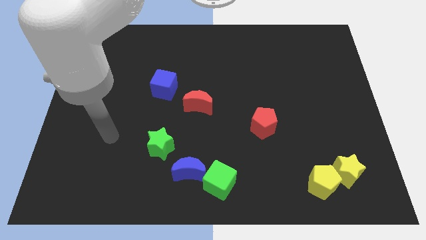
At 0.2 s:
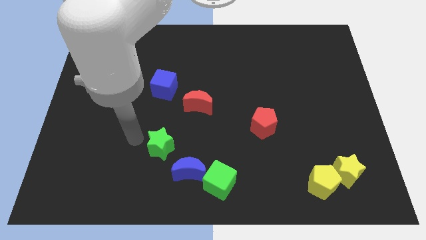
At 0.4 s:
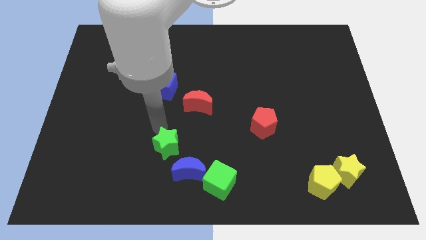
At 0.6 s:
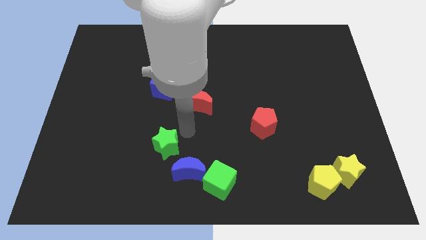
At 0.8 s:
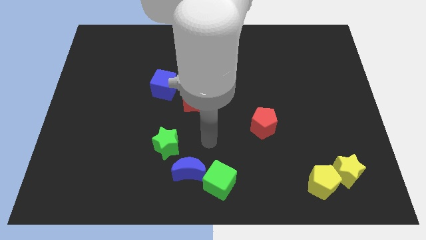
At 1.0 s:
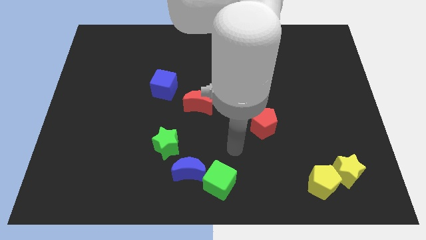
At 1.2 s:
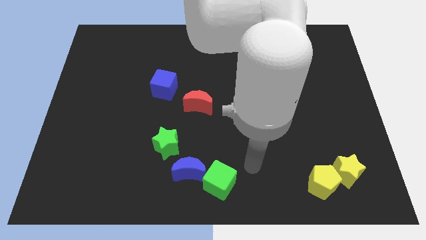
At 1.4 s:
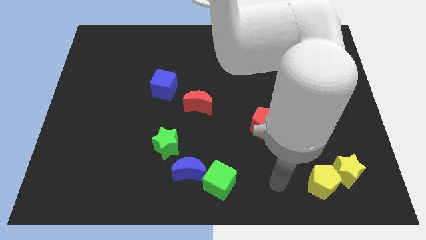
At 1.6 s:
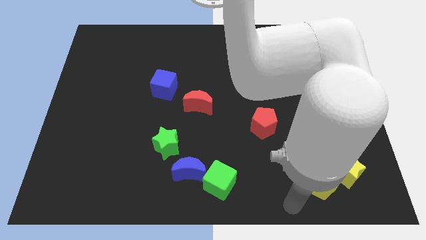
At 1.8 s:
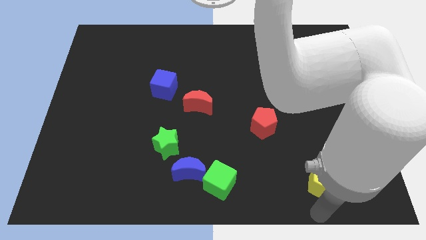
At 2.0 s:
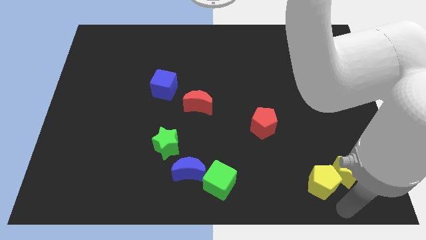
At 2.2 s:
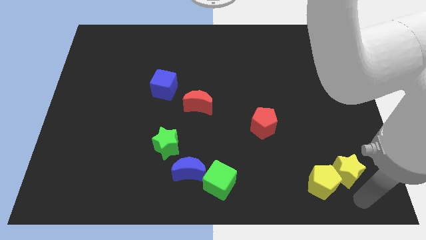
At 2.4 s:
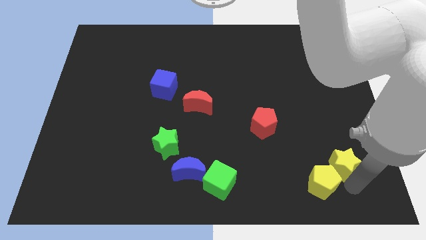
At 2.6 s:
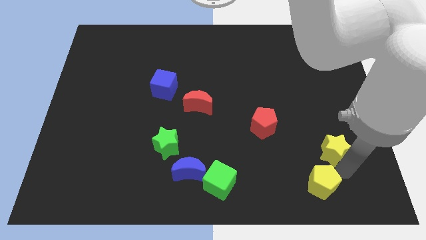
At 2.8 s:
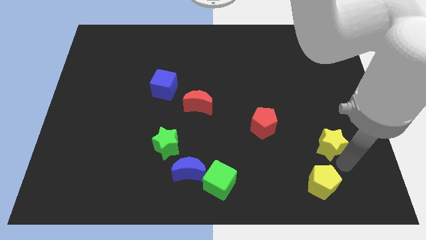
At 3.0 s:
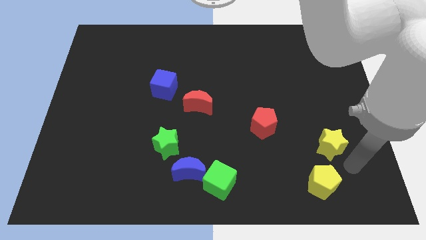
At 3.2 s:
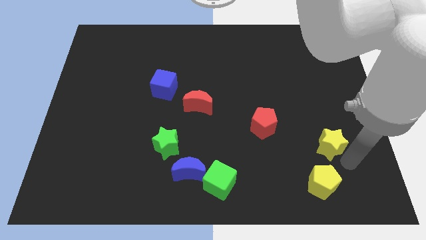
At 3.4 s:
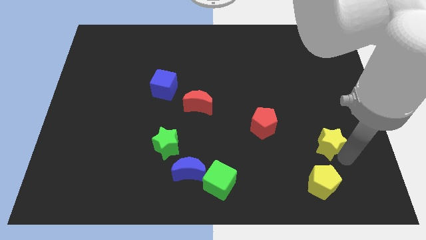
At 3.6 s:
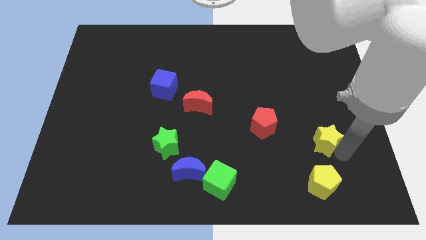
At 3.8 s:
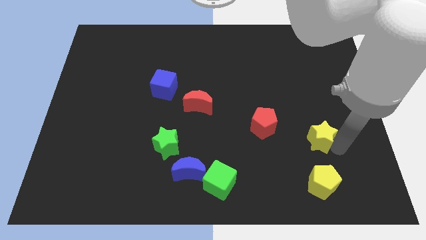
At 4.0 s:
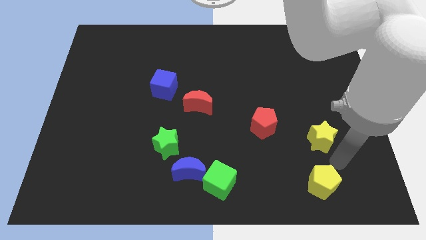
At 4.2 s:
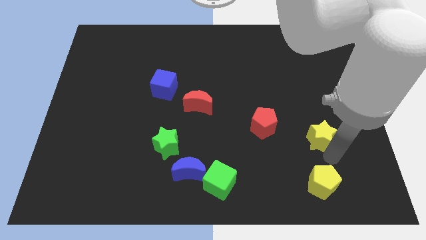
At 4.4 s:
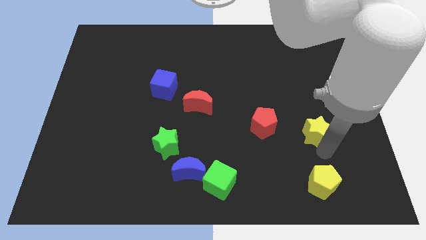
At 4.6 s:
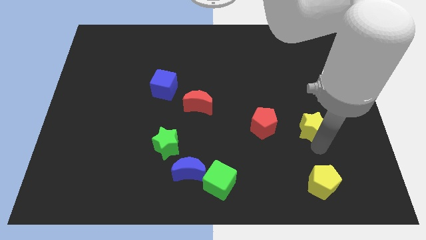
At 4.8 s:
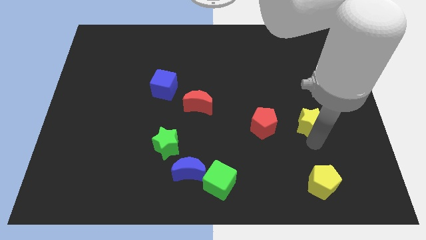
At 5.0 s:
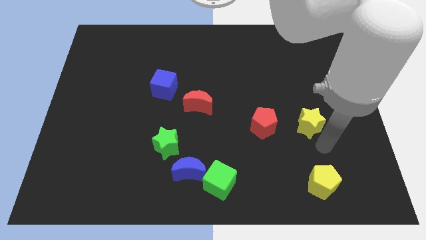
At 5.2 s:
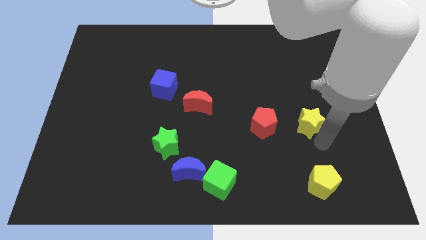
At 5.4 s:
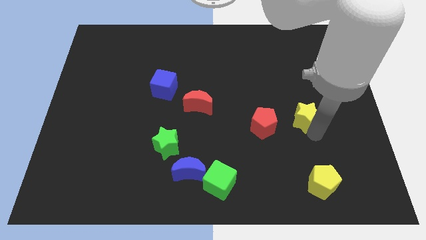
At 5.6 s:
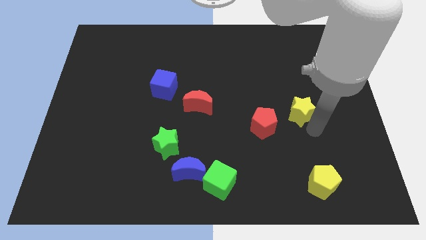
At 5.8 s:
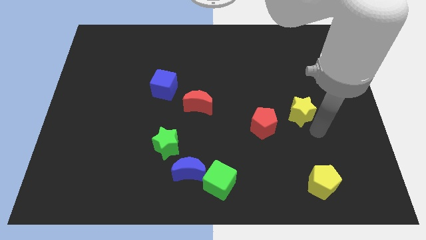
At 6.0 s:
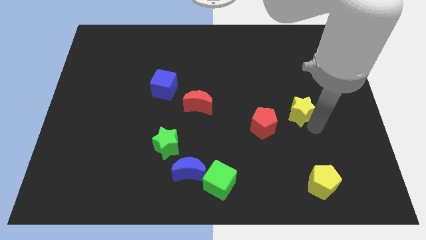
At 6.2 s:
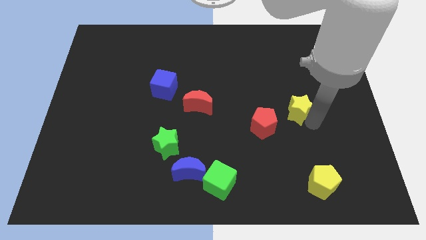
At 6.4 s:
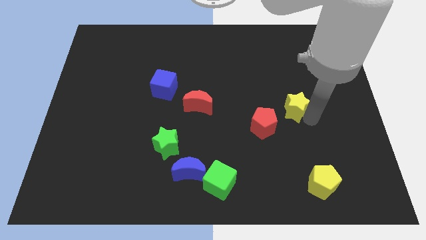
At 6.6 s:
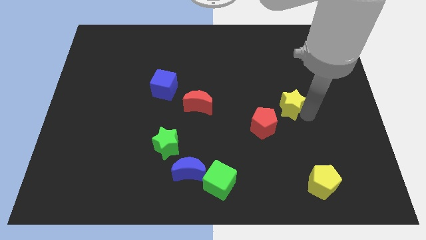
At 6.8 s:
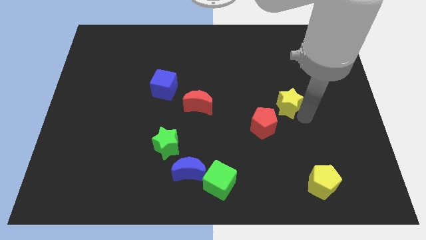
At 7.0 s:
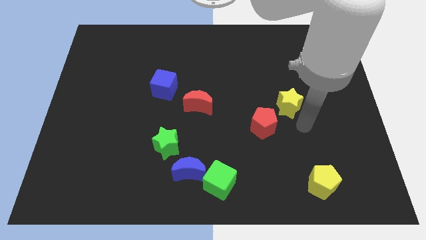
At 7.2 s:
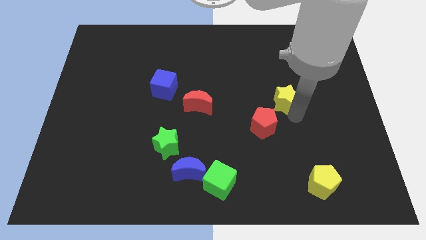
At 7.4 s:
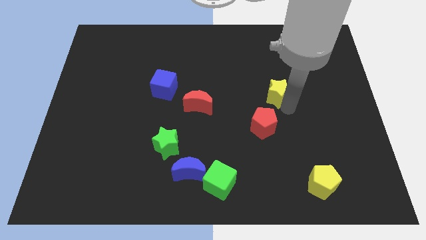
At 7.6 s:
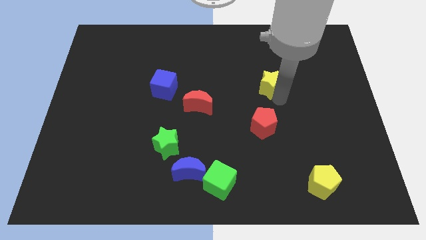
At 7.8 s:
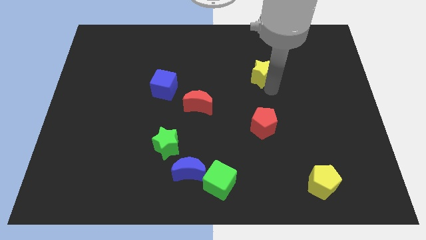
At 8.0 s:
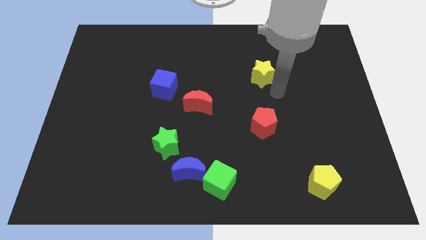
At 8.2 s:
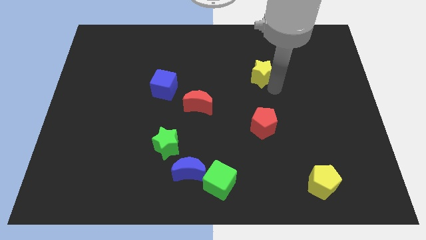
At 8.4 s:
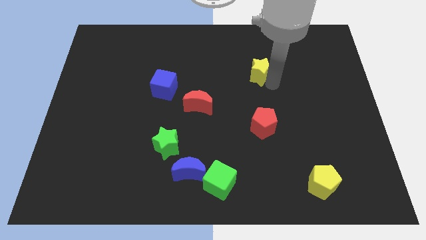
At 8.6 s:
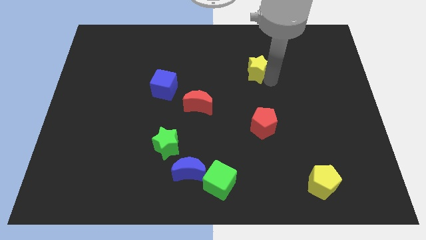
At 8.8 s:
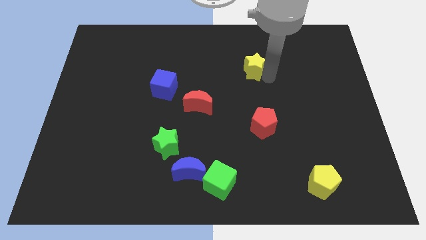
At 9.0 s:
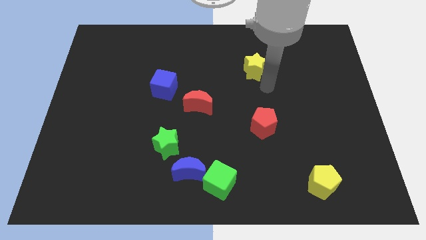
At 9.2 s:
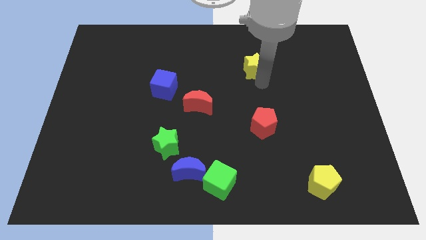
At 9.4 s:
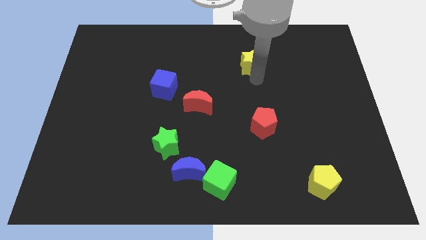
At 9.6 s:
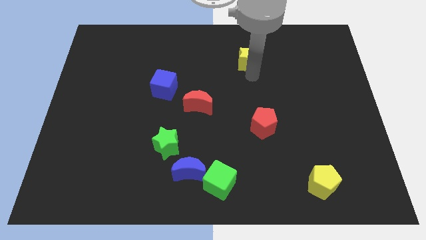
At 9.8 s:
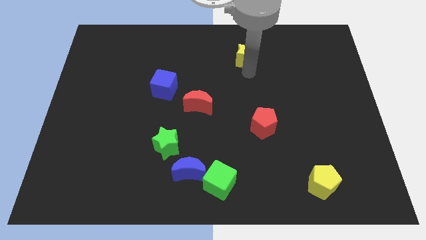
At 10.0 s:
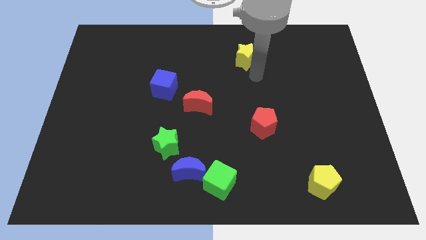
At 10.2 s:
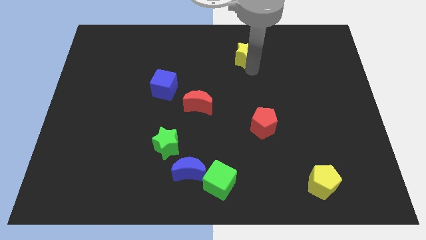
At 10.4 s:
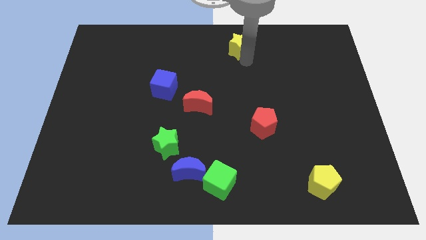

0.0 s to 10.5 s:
push the yellow star to the top side

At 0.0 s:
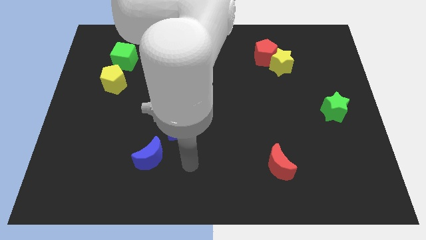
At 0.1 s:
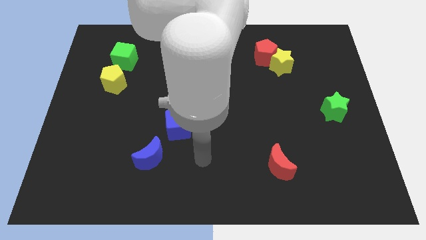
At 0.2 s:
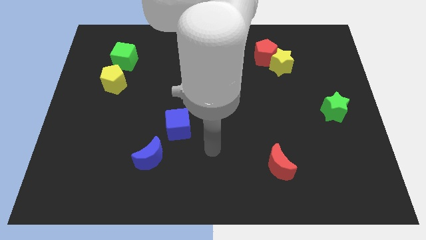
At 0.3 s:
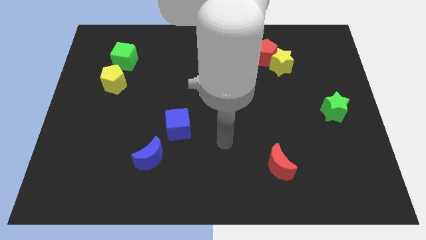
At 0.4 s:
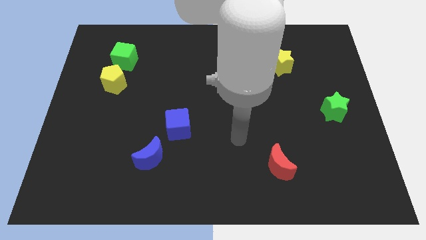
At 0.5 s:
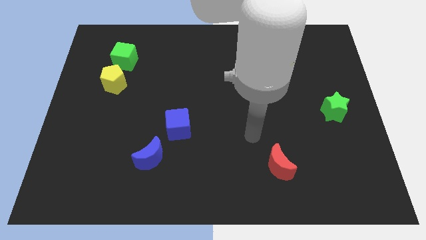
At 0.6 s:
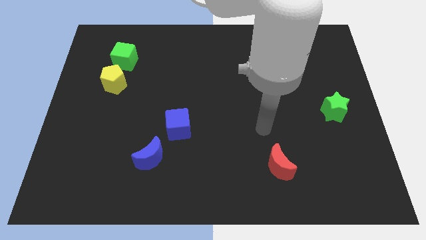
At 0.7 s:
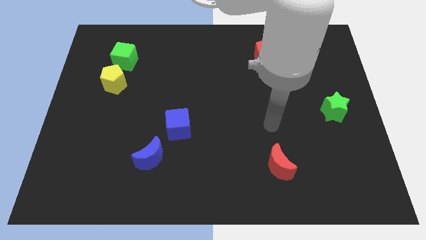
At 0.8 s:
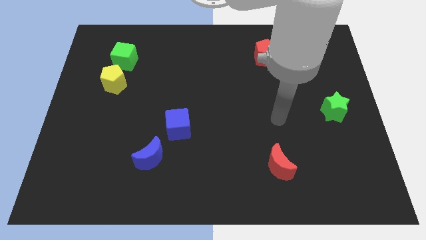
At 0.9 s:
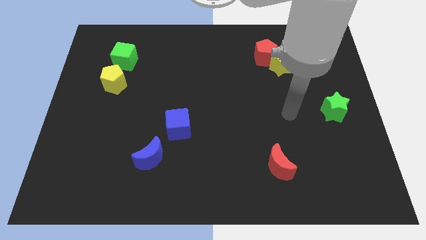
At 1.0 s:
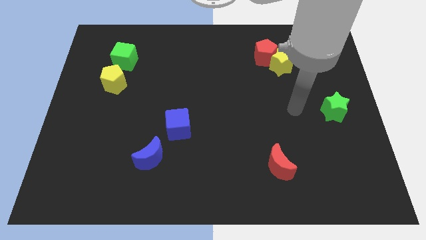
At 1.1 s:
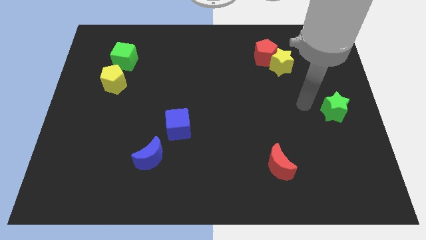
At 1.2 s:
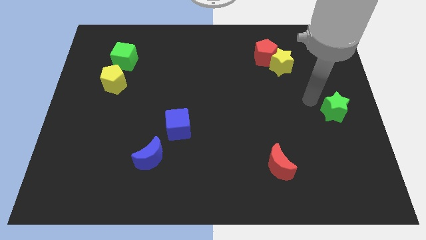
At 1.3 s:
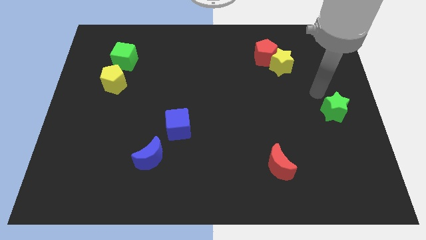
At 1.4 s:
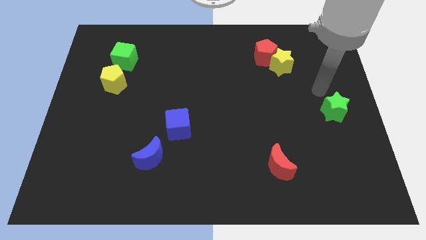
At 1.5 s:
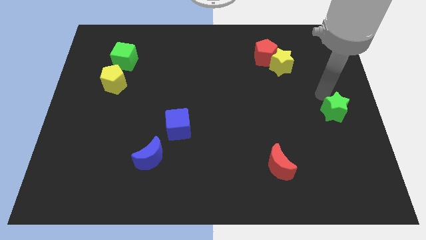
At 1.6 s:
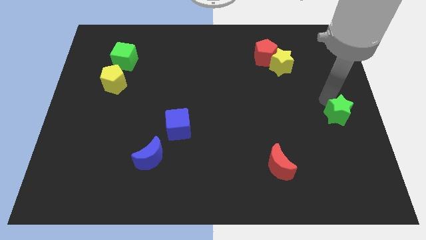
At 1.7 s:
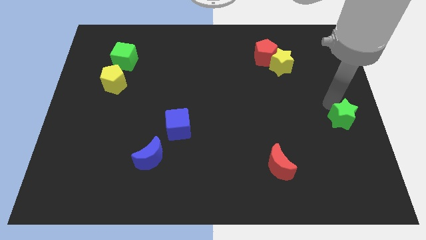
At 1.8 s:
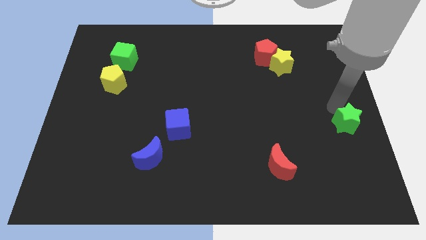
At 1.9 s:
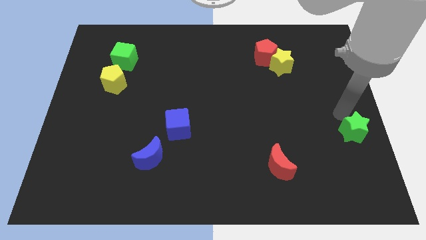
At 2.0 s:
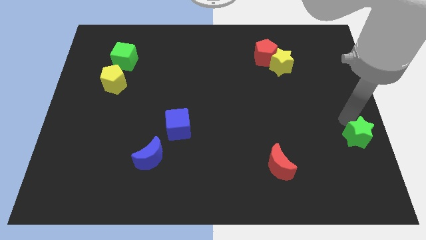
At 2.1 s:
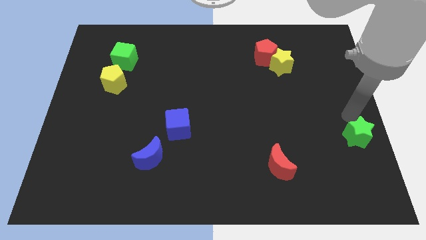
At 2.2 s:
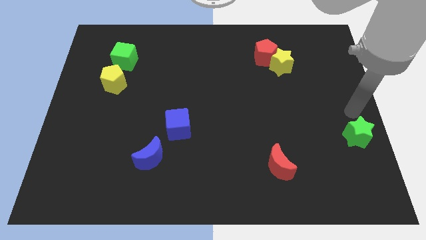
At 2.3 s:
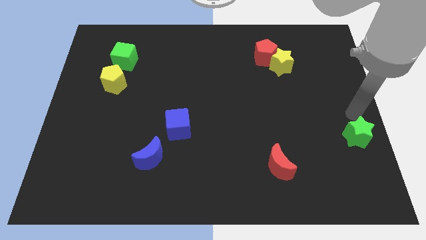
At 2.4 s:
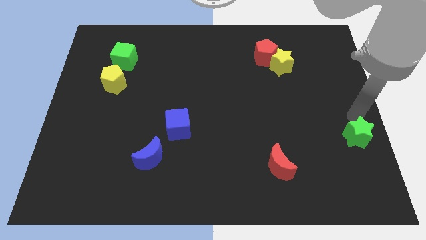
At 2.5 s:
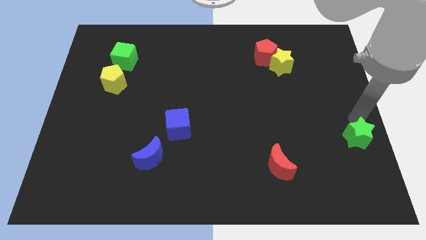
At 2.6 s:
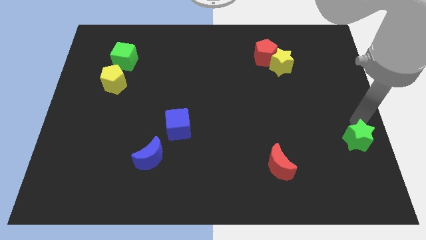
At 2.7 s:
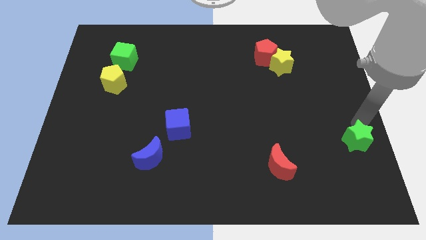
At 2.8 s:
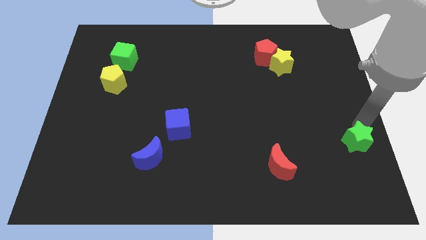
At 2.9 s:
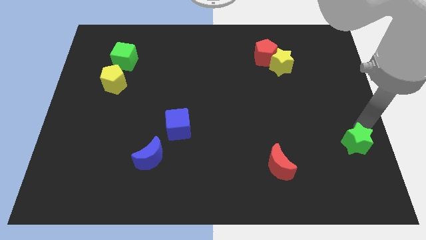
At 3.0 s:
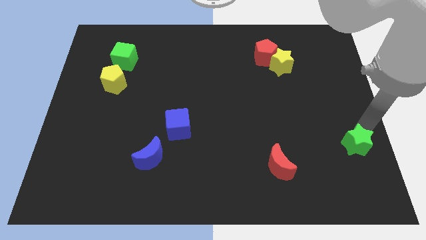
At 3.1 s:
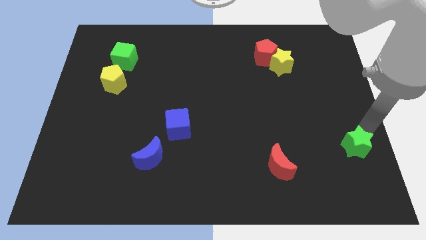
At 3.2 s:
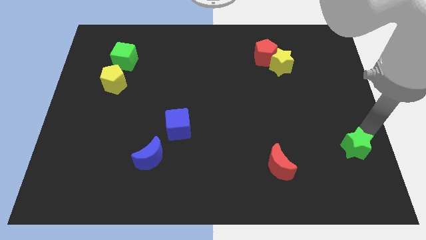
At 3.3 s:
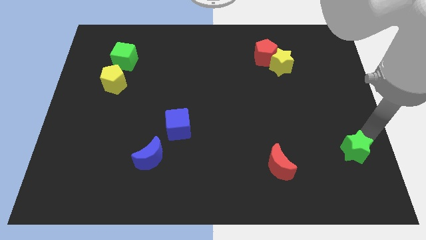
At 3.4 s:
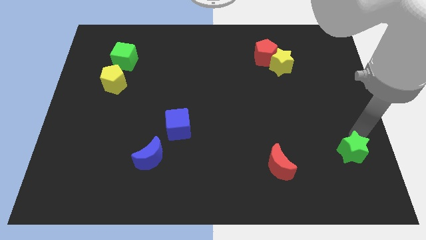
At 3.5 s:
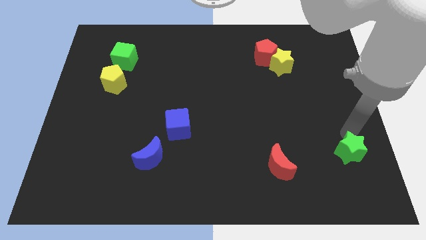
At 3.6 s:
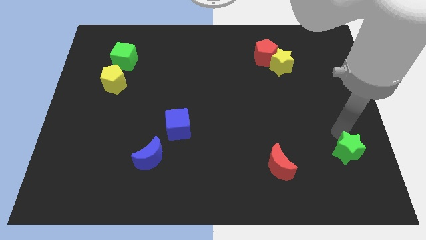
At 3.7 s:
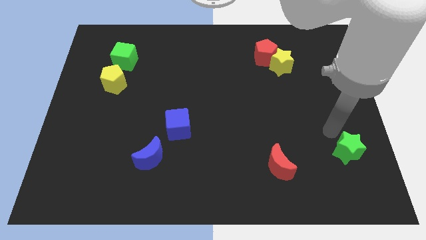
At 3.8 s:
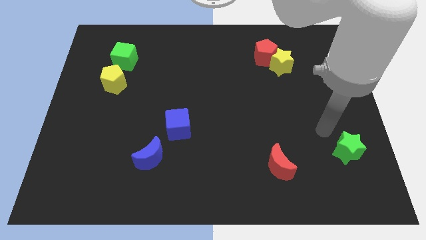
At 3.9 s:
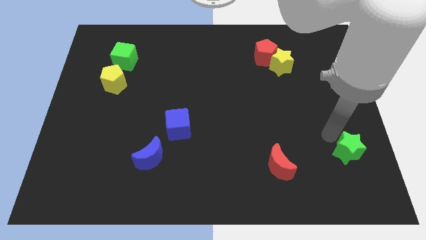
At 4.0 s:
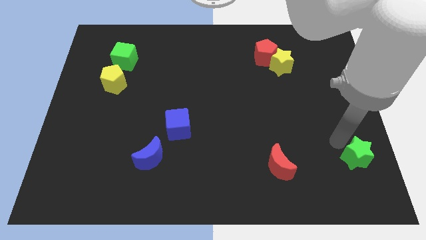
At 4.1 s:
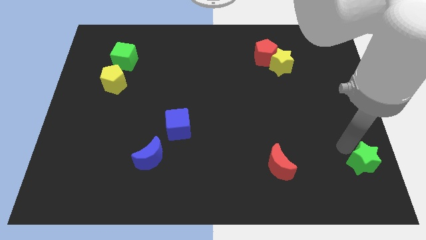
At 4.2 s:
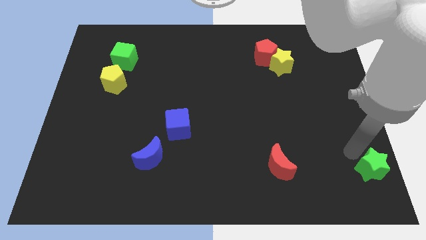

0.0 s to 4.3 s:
push the green star to the lower right corner
